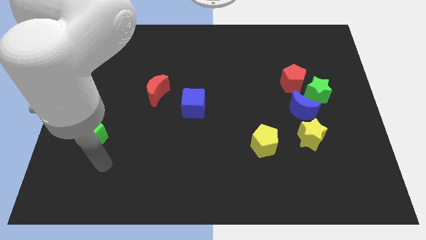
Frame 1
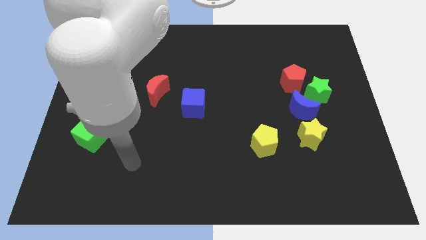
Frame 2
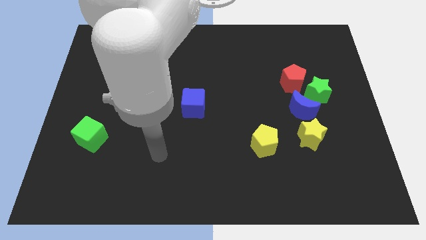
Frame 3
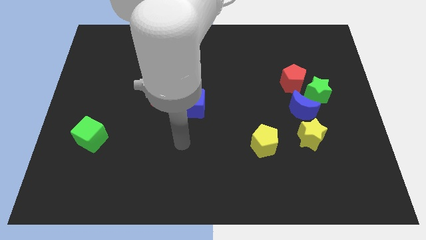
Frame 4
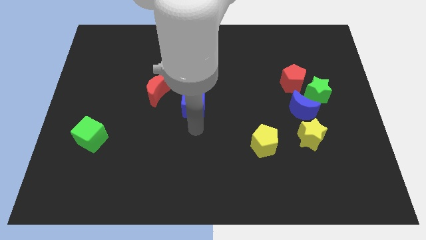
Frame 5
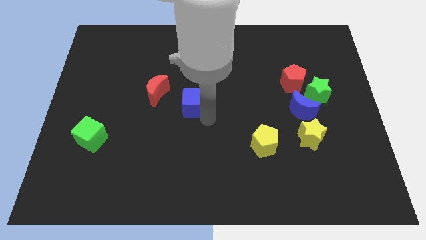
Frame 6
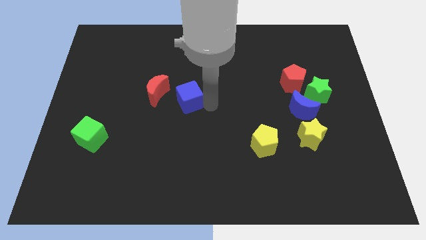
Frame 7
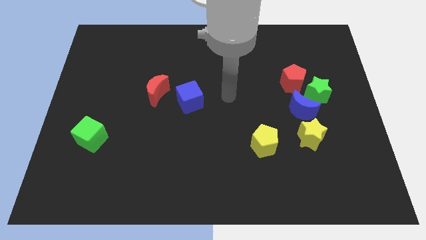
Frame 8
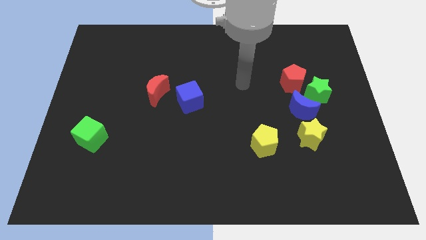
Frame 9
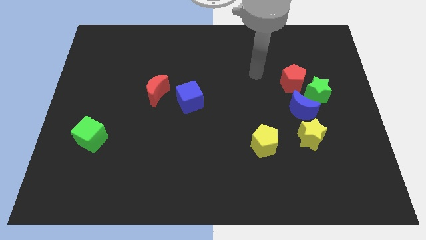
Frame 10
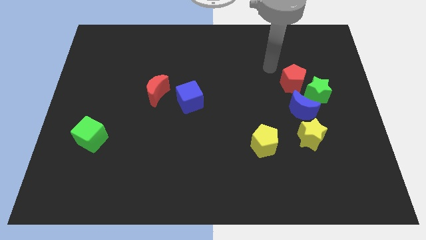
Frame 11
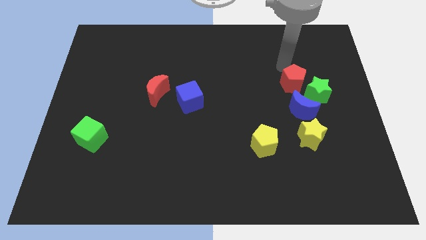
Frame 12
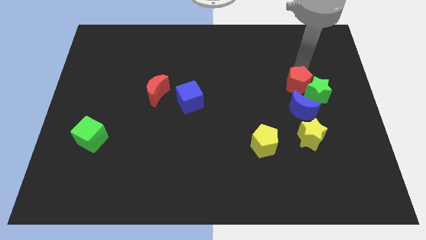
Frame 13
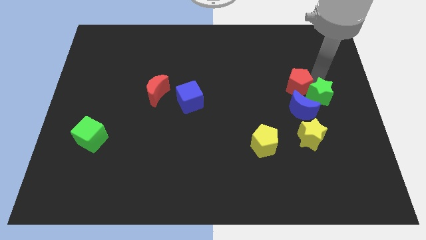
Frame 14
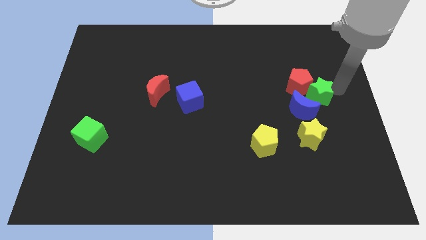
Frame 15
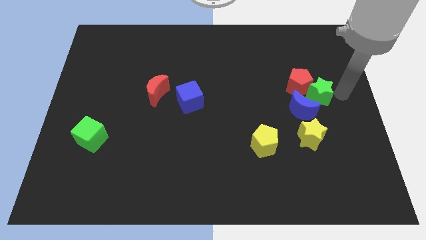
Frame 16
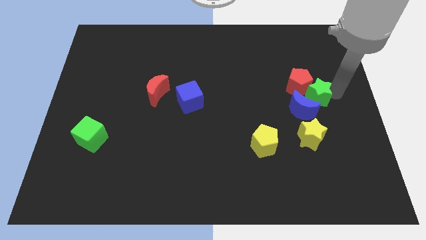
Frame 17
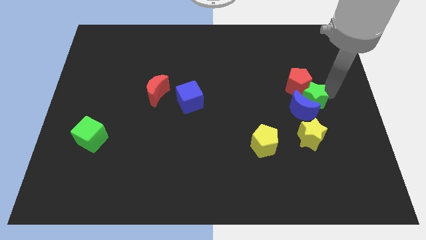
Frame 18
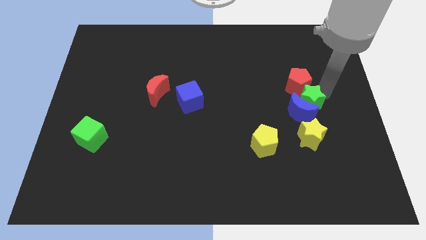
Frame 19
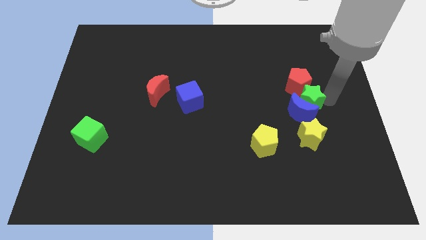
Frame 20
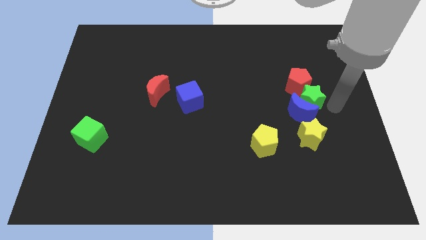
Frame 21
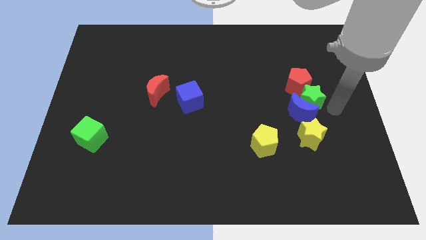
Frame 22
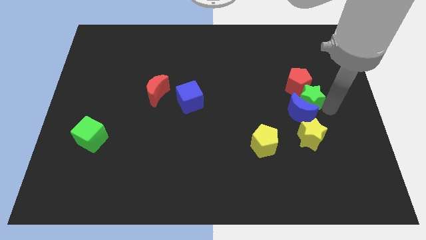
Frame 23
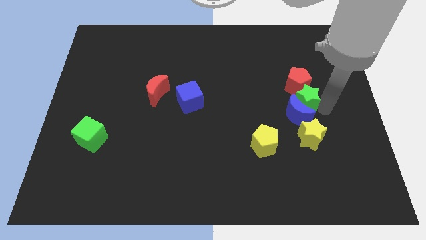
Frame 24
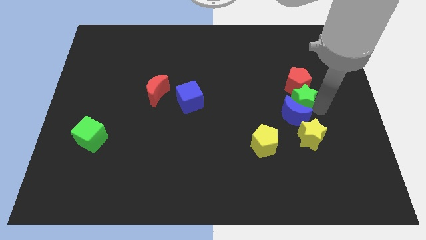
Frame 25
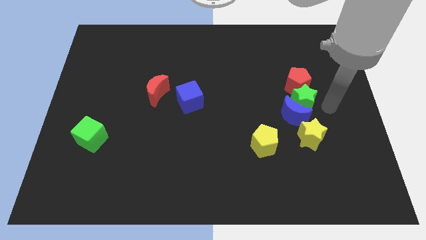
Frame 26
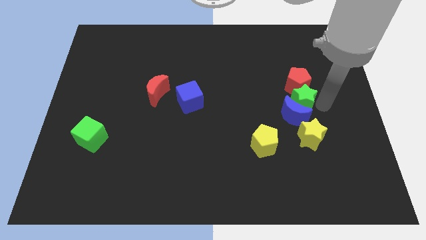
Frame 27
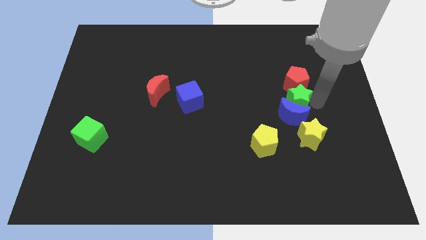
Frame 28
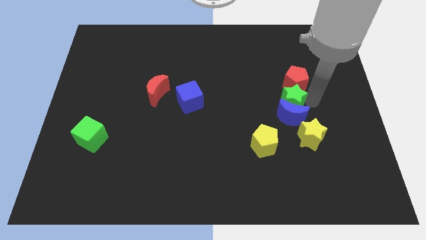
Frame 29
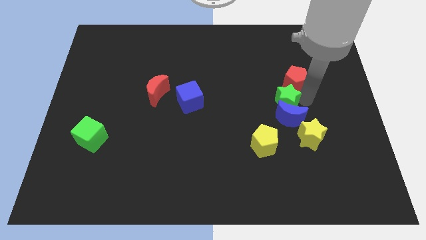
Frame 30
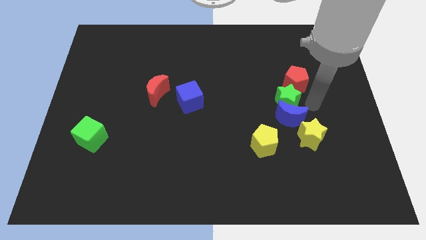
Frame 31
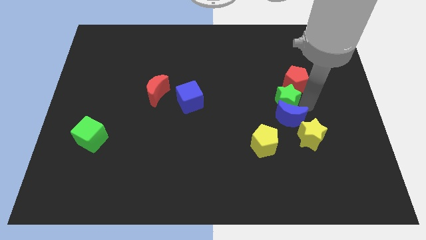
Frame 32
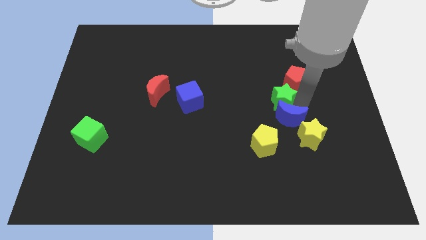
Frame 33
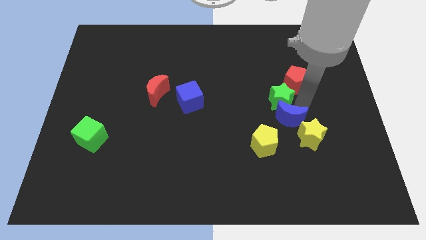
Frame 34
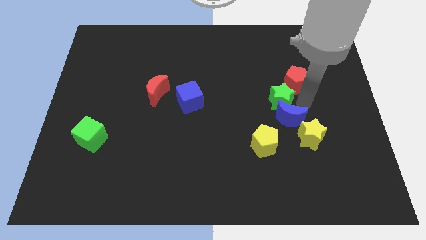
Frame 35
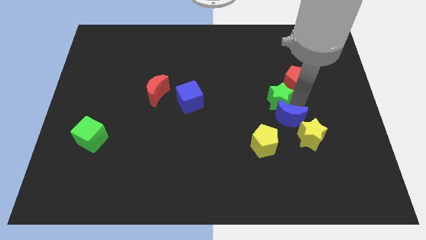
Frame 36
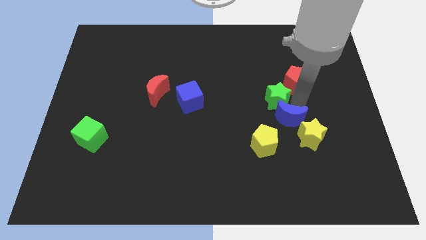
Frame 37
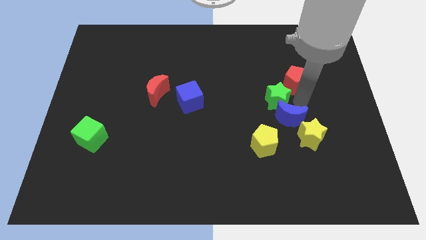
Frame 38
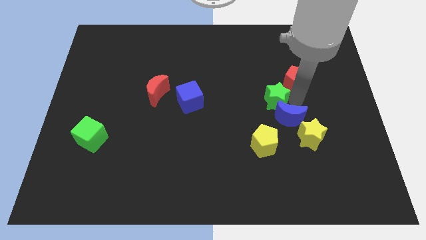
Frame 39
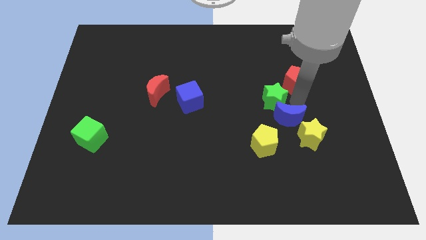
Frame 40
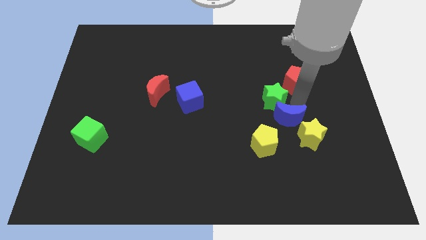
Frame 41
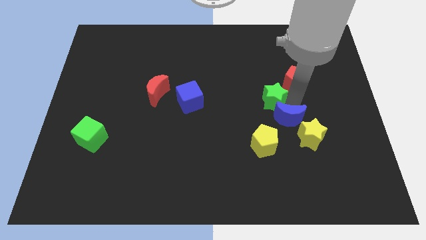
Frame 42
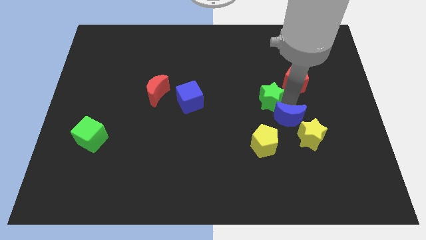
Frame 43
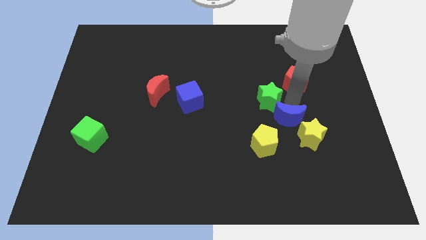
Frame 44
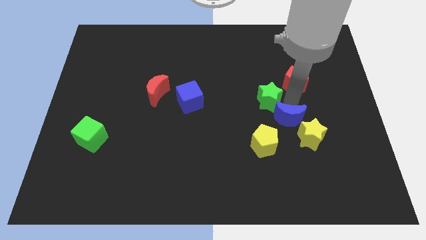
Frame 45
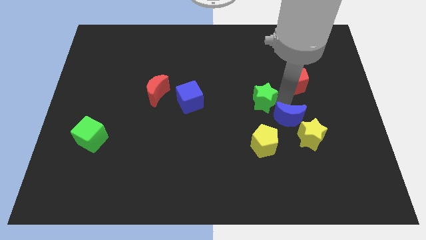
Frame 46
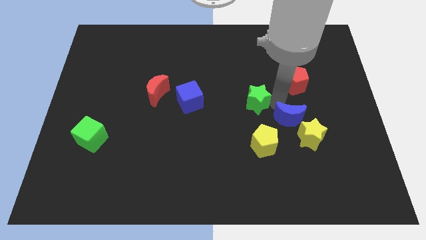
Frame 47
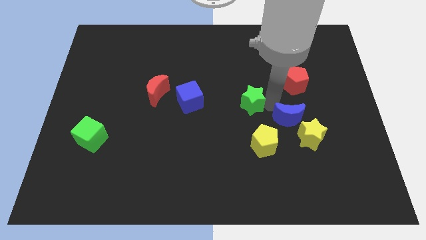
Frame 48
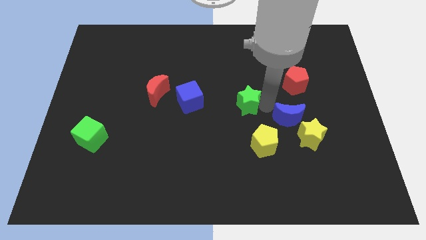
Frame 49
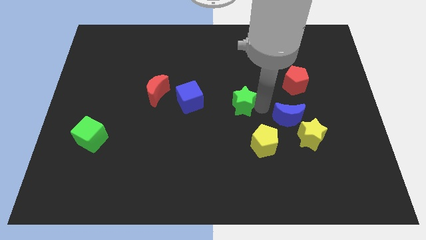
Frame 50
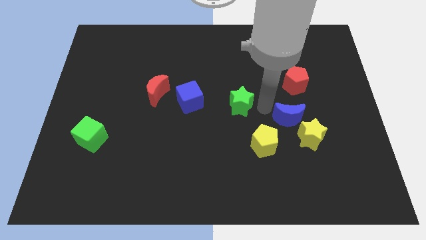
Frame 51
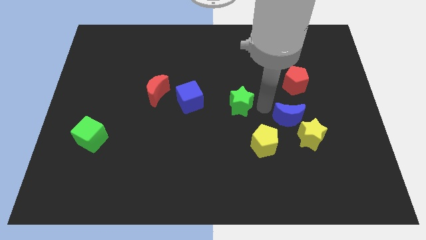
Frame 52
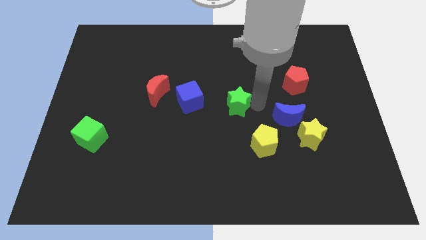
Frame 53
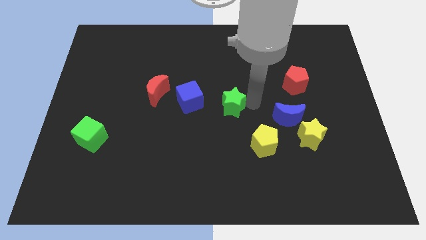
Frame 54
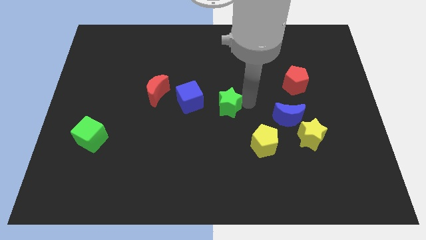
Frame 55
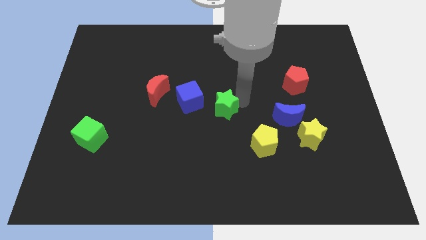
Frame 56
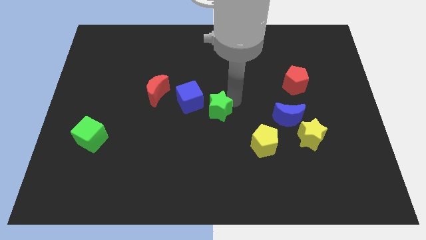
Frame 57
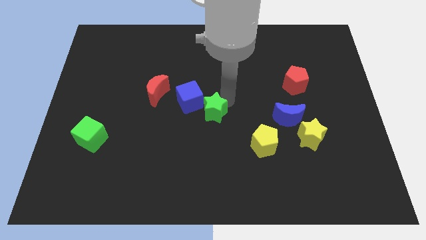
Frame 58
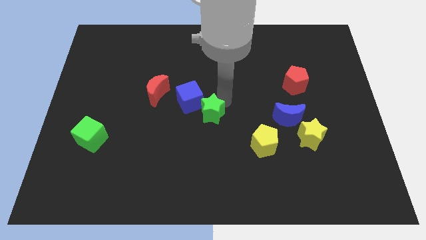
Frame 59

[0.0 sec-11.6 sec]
put the green star close to the blue cube

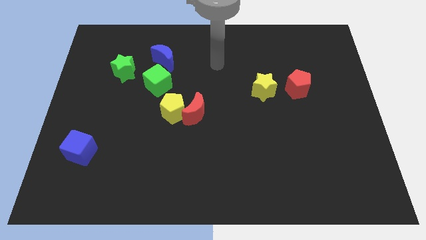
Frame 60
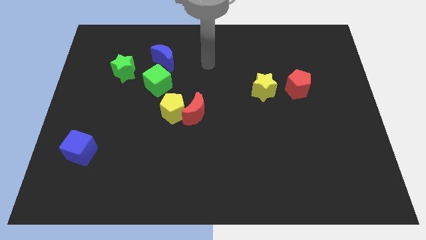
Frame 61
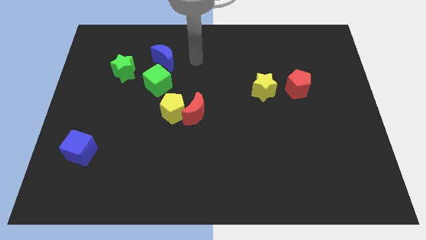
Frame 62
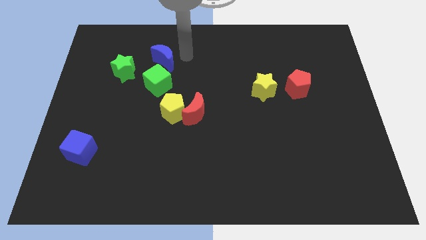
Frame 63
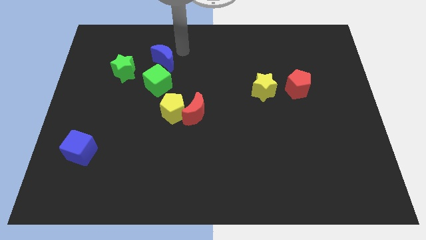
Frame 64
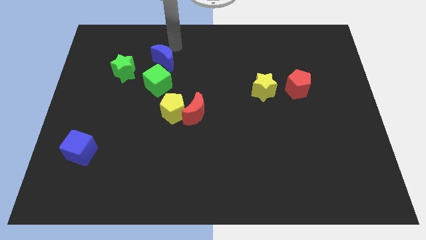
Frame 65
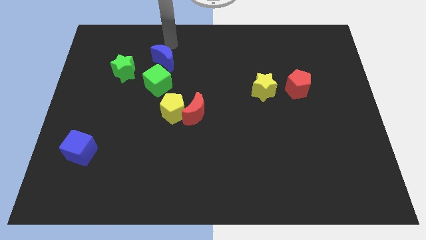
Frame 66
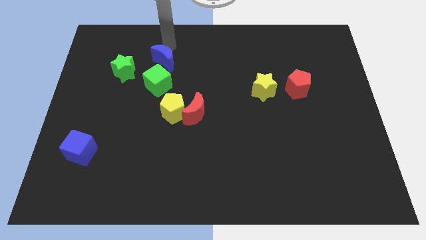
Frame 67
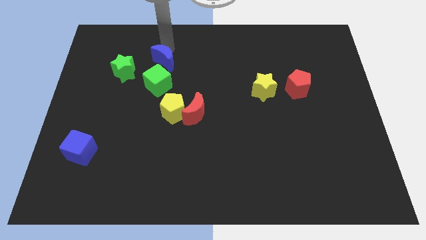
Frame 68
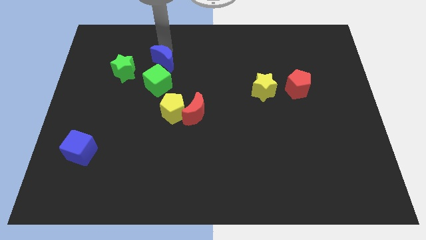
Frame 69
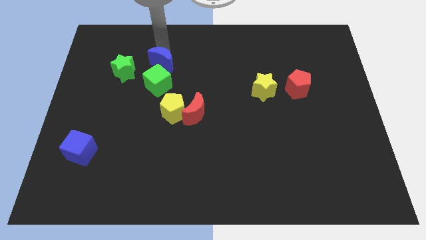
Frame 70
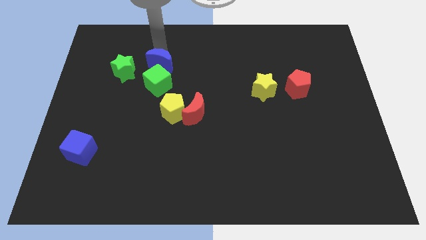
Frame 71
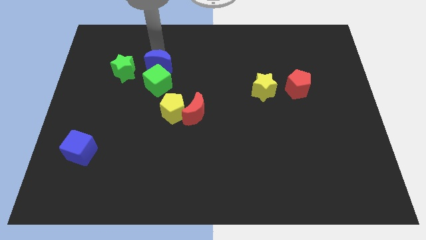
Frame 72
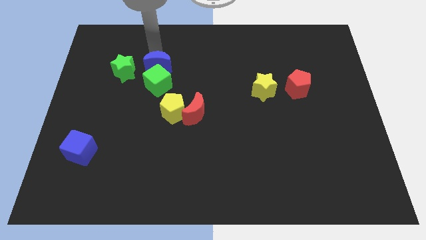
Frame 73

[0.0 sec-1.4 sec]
move the blue moon towards the green cube
